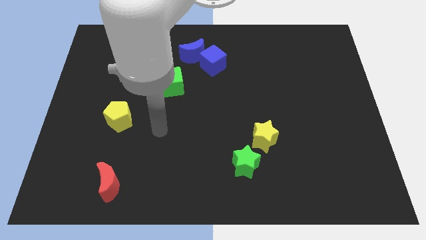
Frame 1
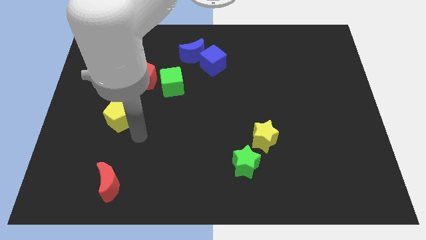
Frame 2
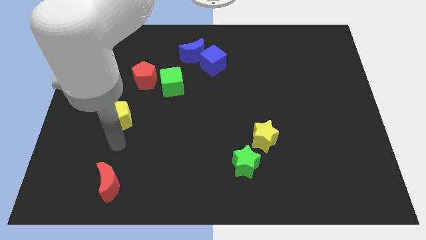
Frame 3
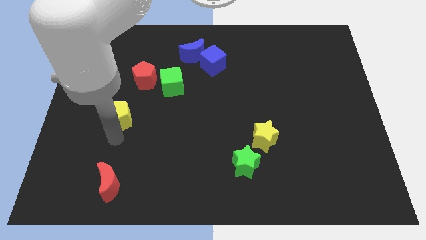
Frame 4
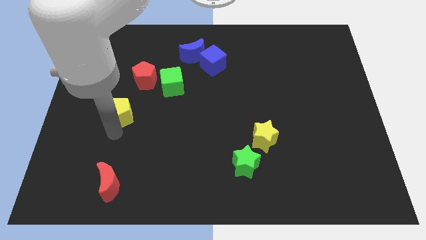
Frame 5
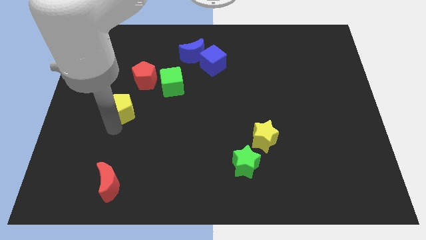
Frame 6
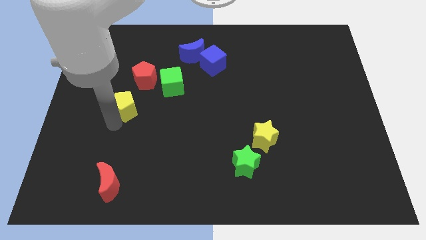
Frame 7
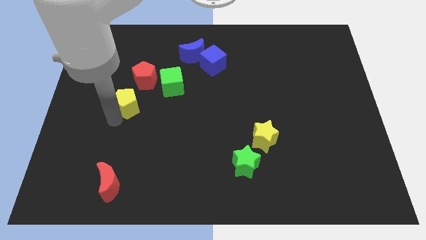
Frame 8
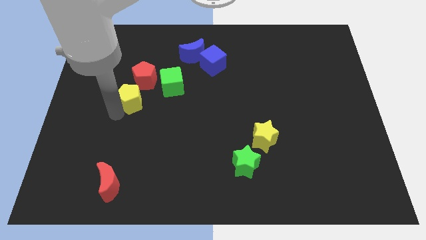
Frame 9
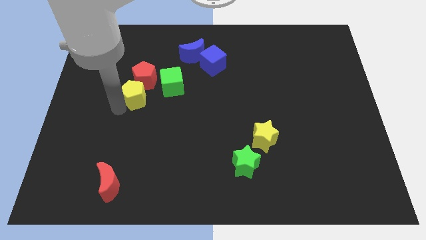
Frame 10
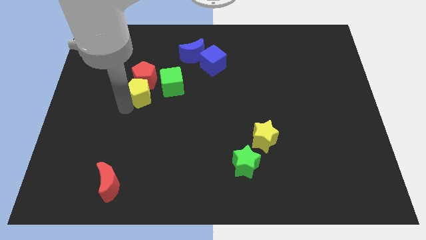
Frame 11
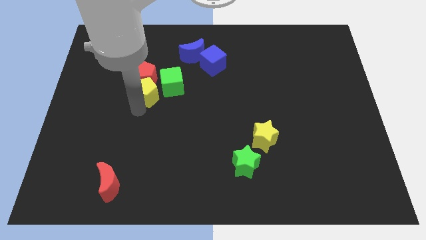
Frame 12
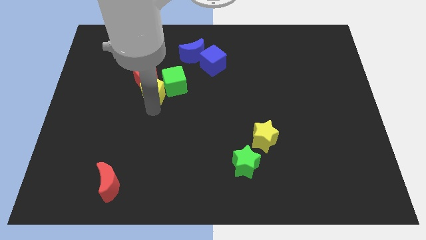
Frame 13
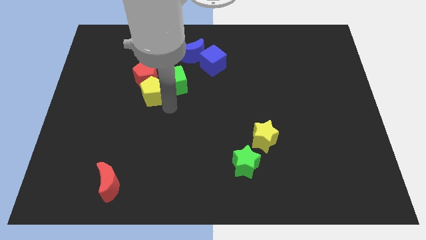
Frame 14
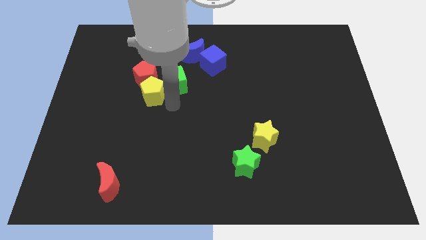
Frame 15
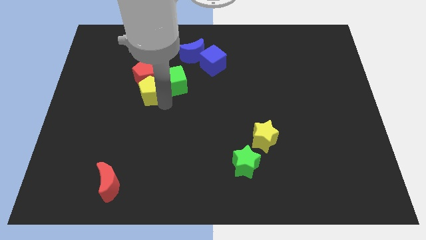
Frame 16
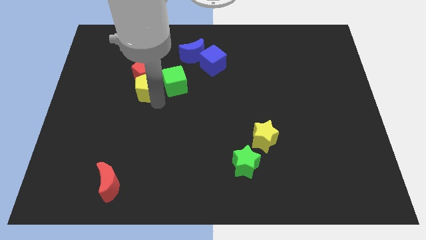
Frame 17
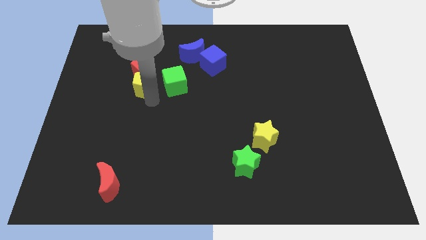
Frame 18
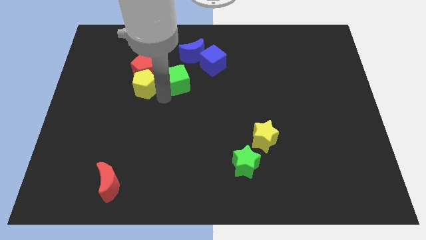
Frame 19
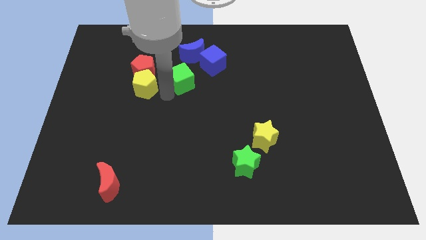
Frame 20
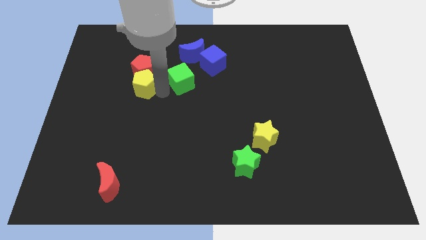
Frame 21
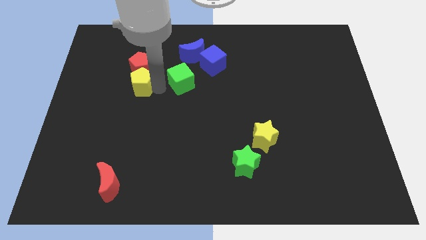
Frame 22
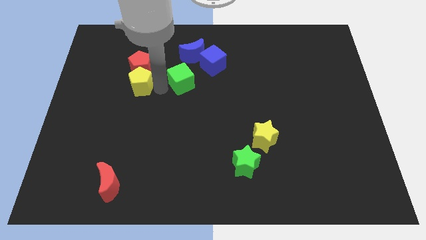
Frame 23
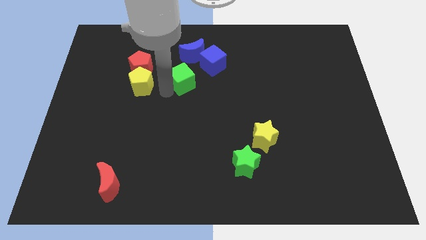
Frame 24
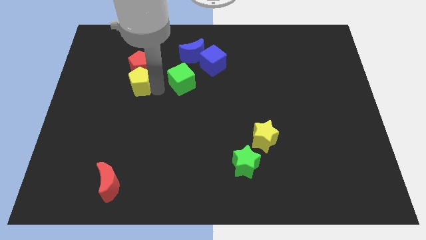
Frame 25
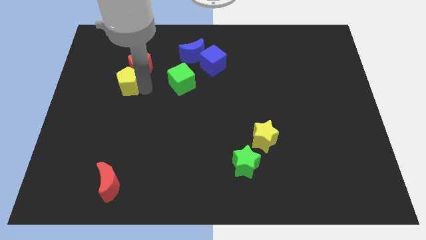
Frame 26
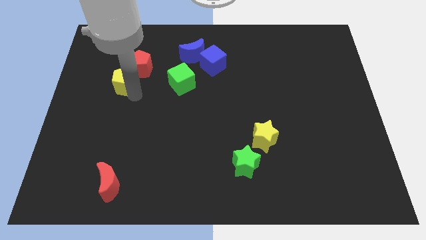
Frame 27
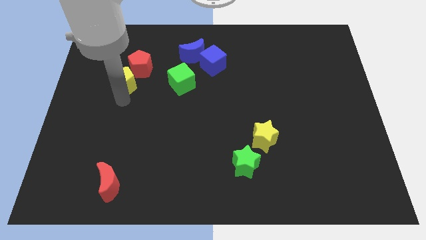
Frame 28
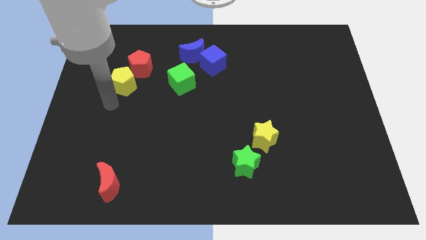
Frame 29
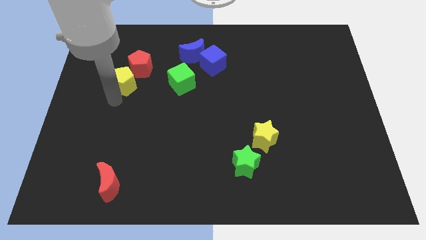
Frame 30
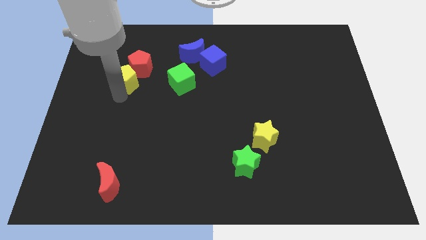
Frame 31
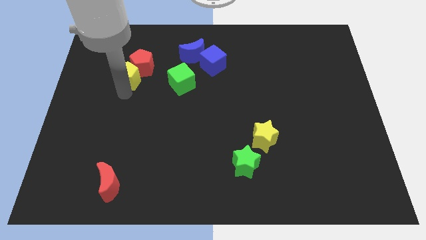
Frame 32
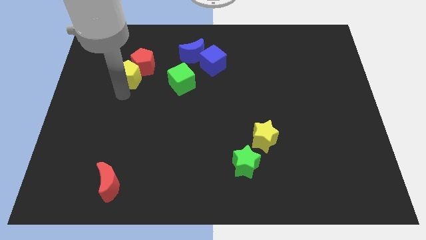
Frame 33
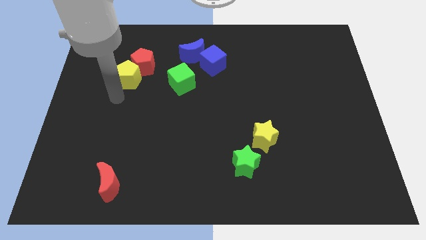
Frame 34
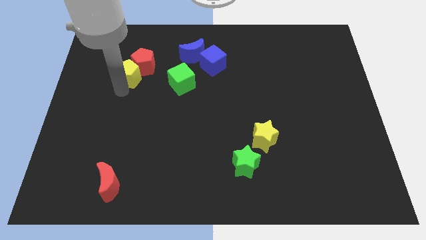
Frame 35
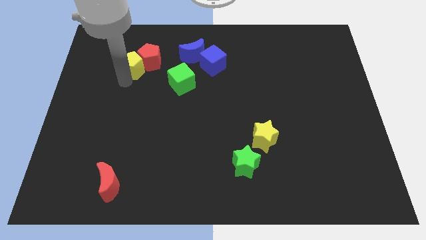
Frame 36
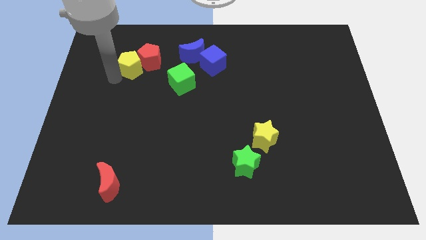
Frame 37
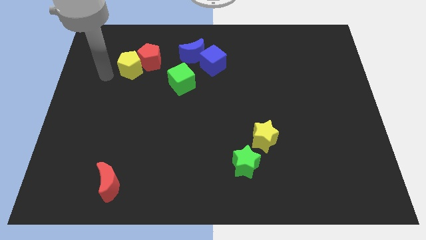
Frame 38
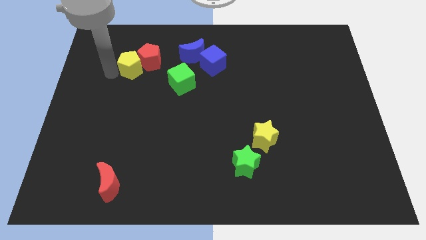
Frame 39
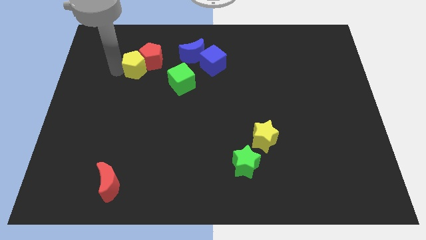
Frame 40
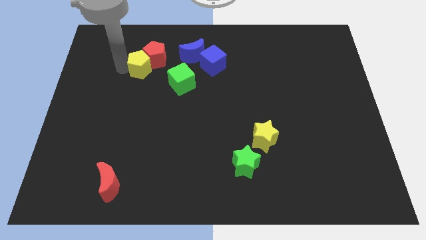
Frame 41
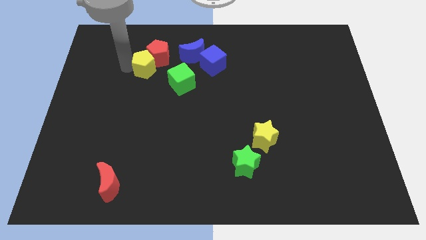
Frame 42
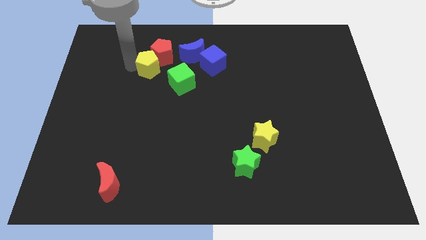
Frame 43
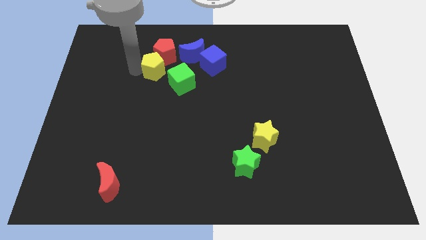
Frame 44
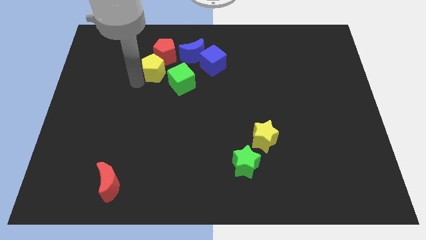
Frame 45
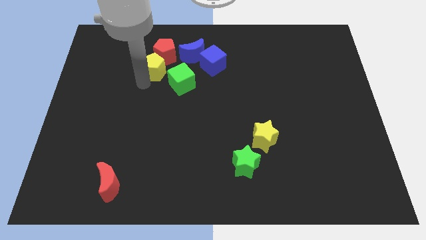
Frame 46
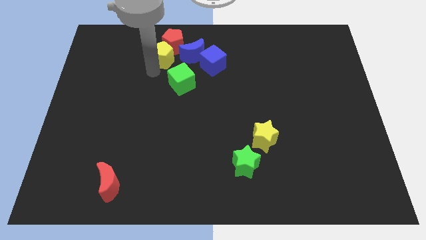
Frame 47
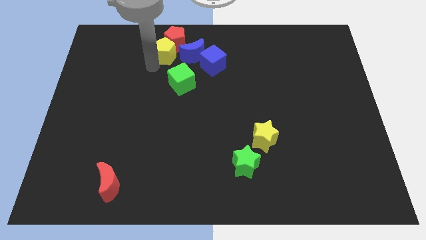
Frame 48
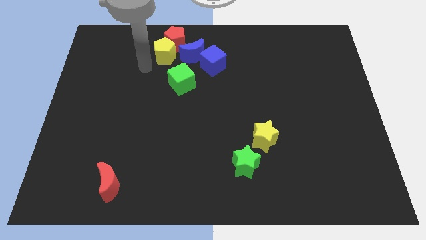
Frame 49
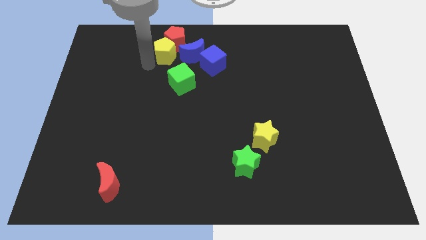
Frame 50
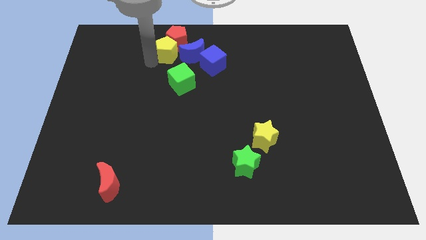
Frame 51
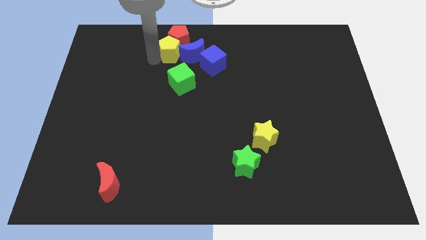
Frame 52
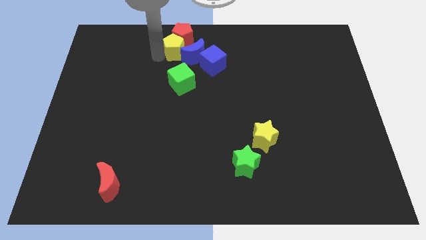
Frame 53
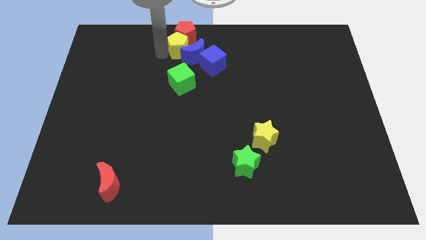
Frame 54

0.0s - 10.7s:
move the yellow pentagon to the towards your base

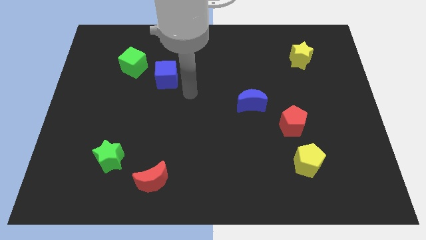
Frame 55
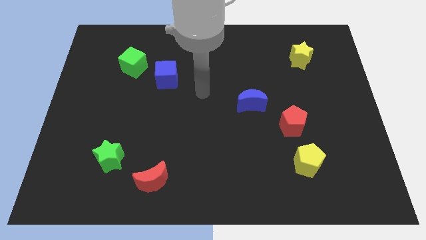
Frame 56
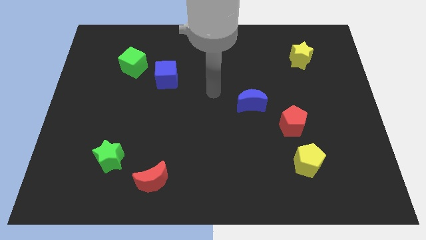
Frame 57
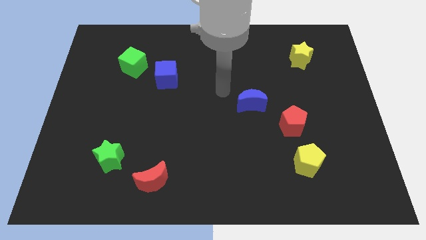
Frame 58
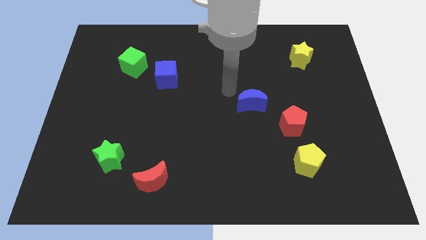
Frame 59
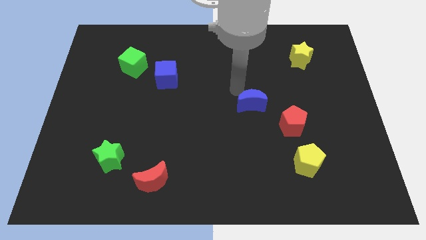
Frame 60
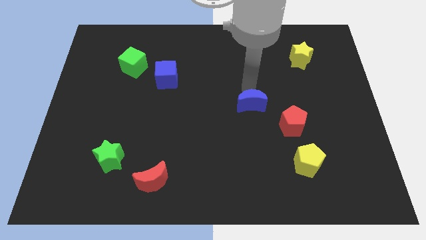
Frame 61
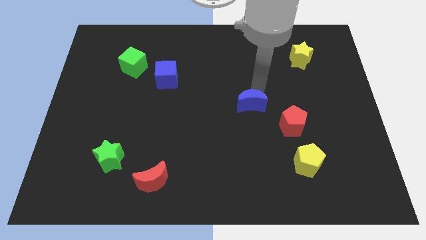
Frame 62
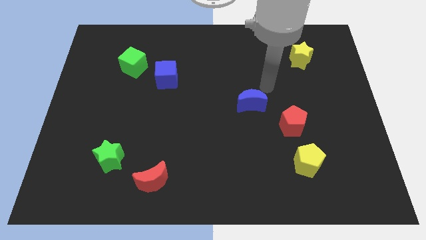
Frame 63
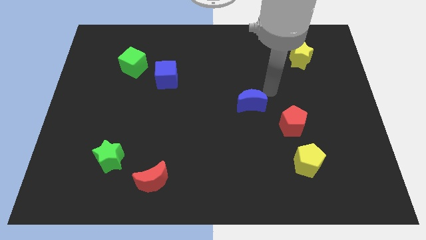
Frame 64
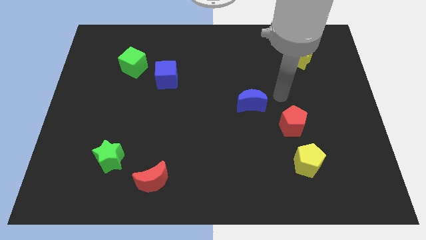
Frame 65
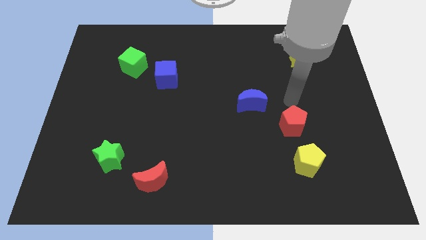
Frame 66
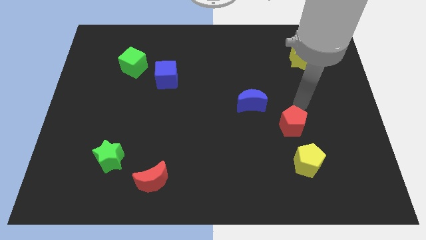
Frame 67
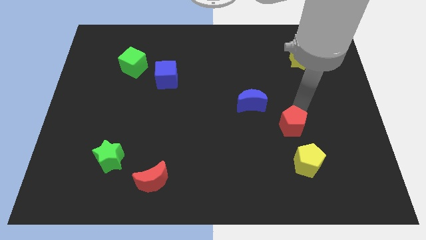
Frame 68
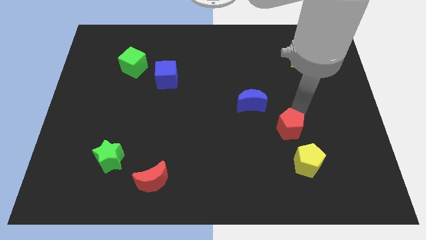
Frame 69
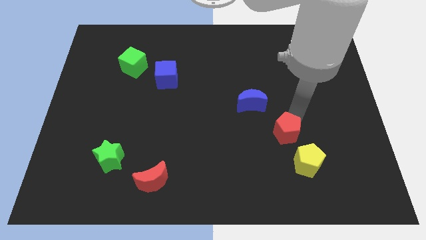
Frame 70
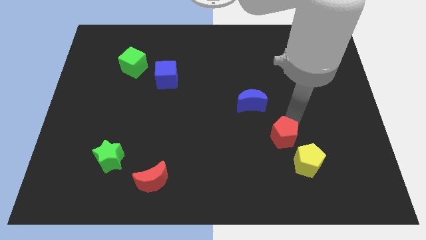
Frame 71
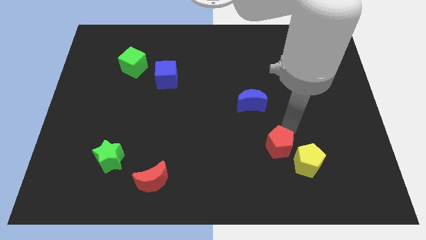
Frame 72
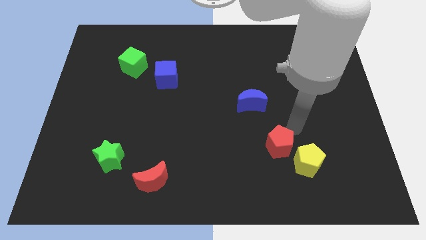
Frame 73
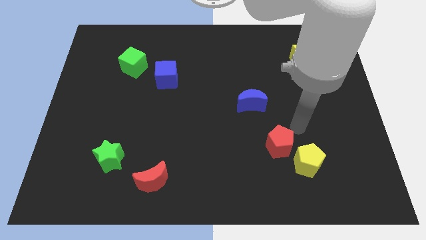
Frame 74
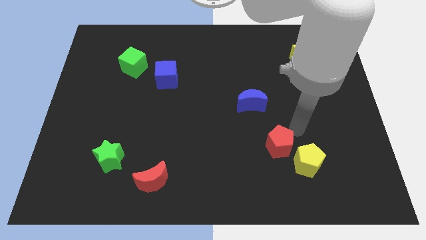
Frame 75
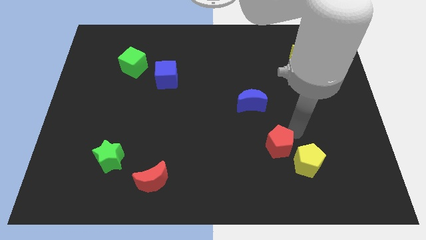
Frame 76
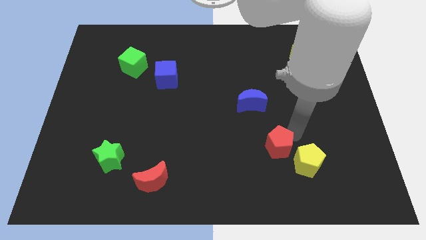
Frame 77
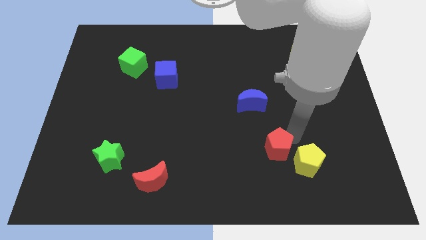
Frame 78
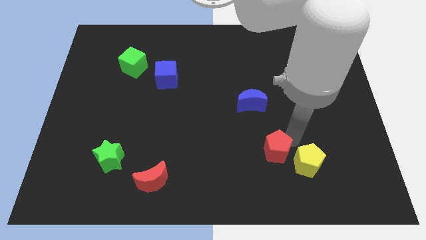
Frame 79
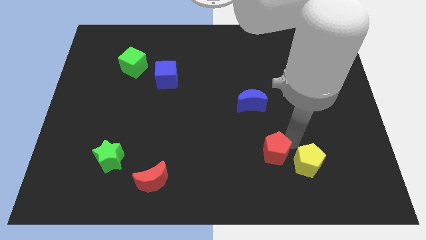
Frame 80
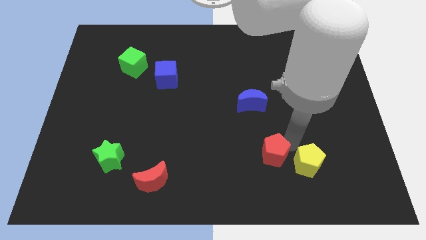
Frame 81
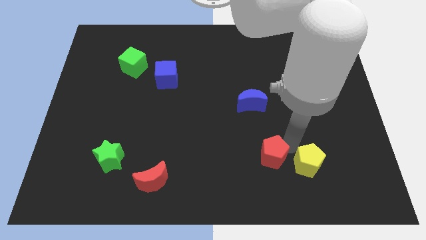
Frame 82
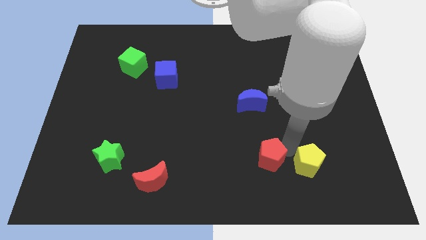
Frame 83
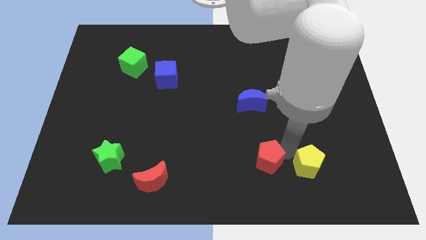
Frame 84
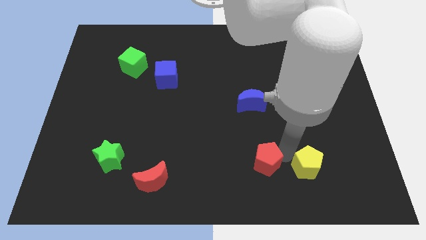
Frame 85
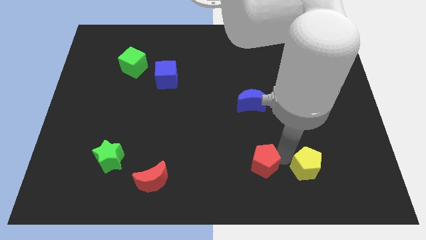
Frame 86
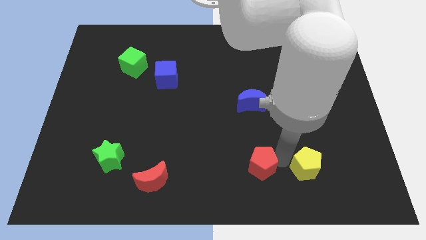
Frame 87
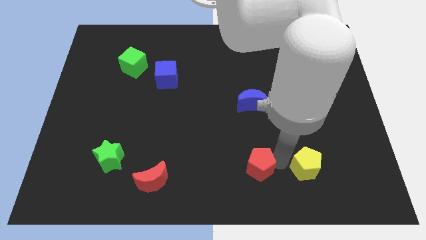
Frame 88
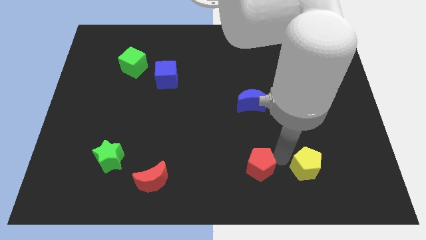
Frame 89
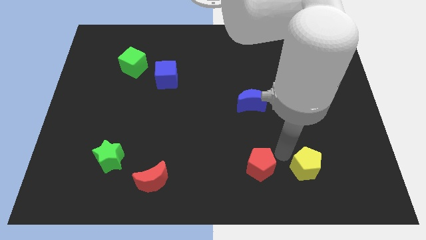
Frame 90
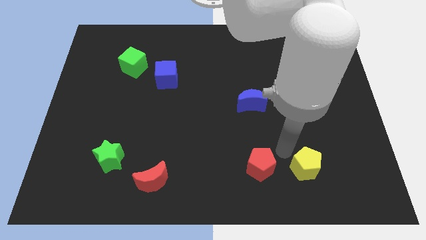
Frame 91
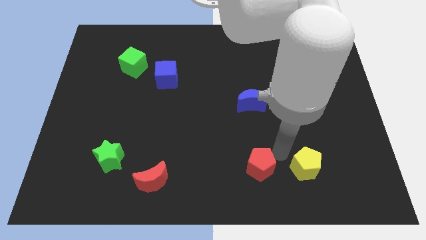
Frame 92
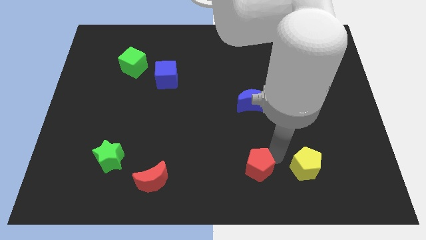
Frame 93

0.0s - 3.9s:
move the red pentagon to the bottom side
